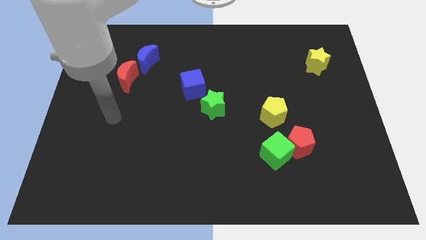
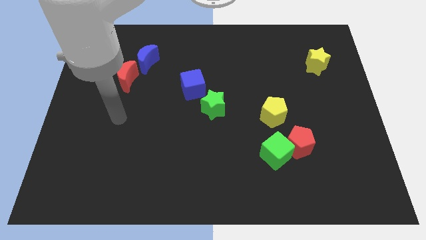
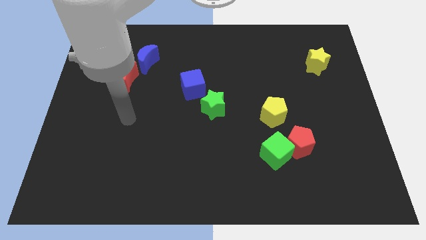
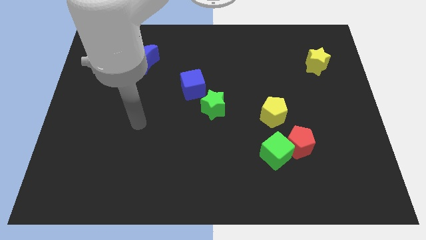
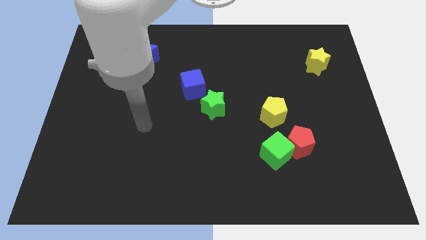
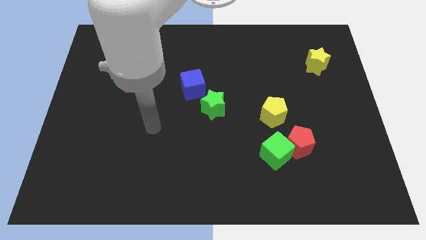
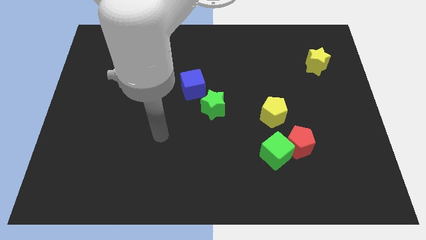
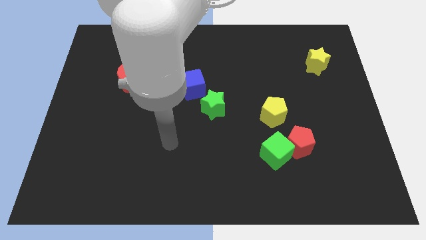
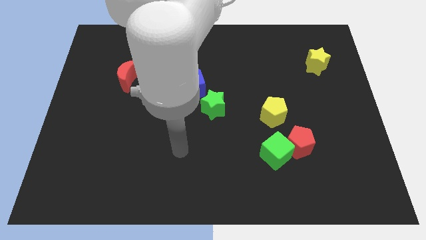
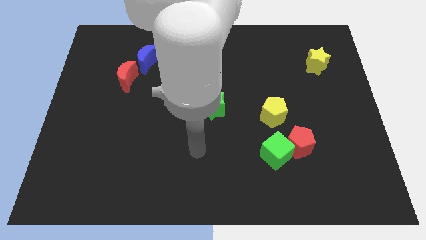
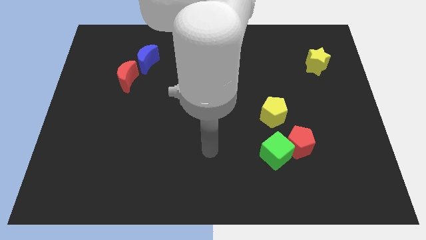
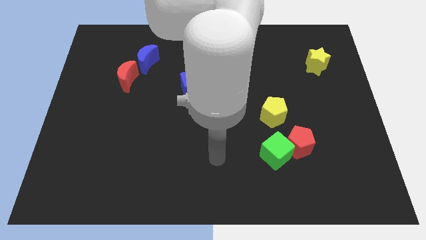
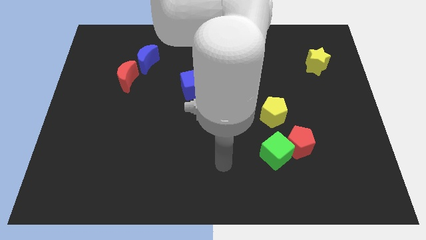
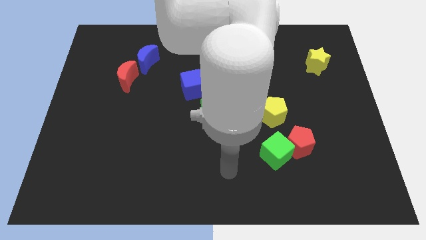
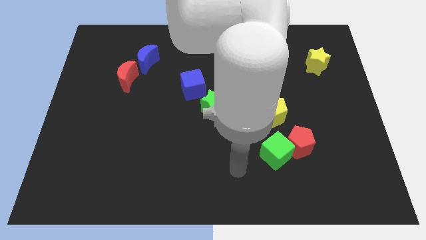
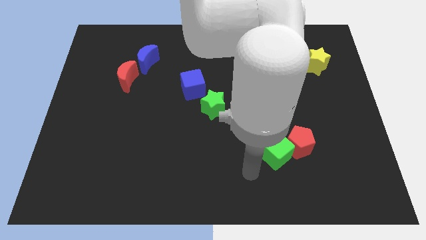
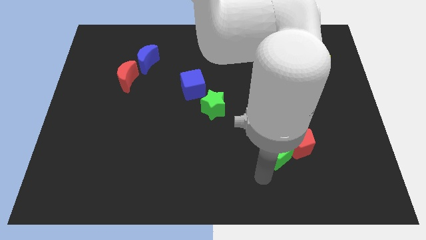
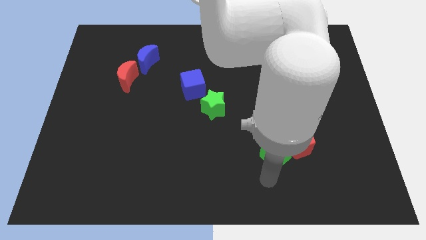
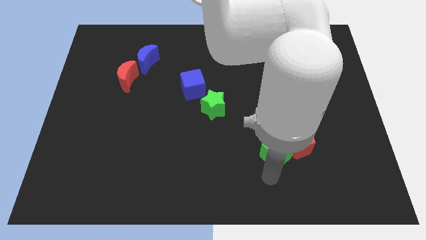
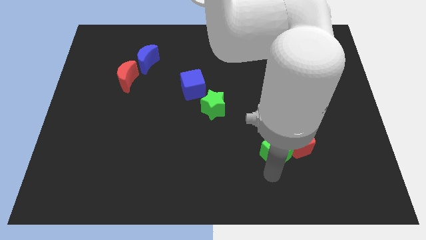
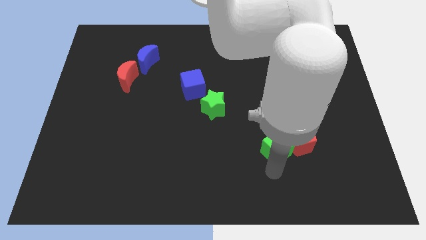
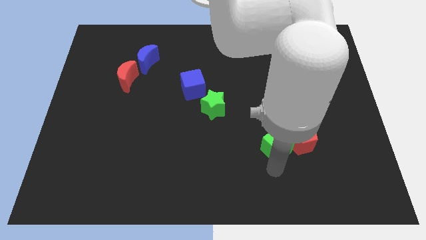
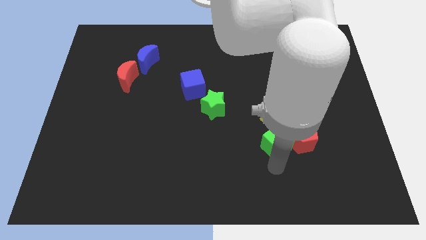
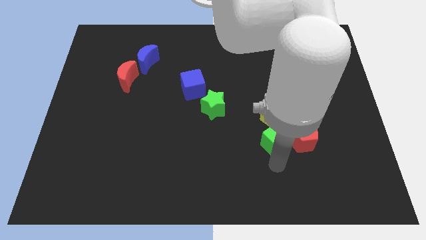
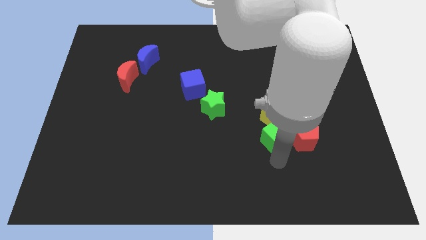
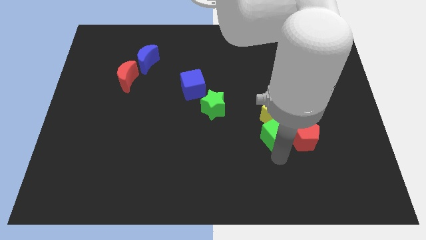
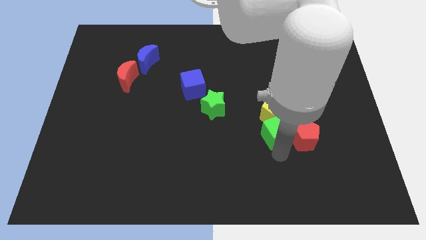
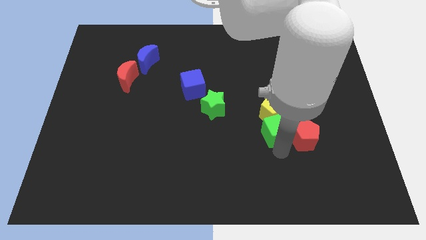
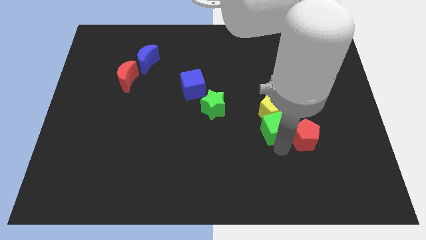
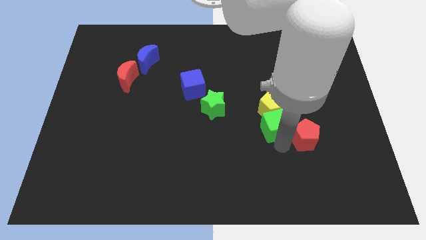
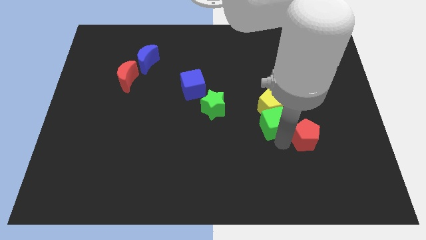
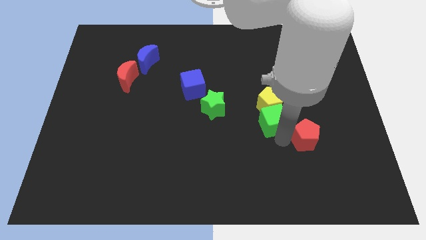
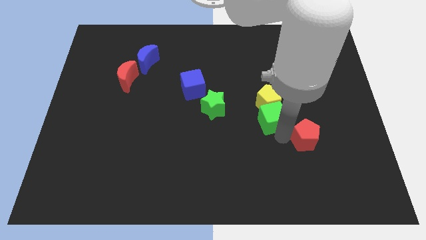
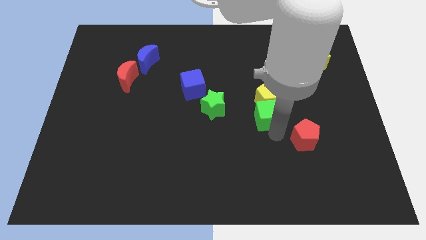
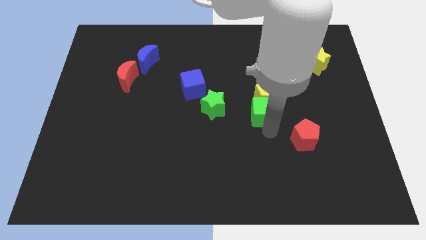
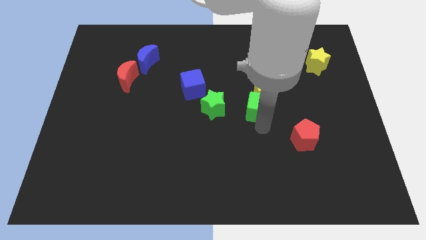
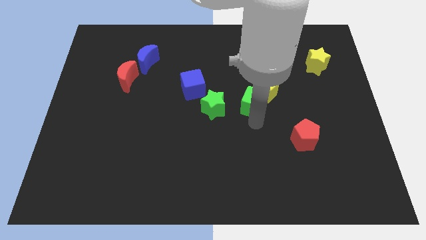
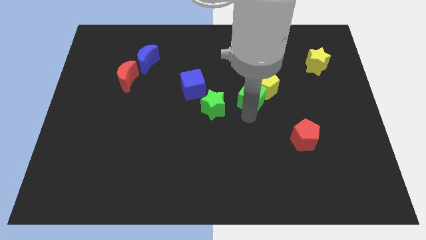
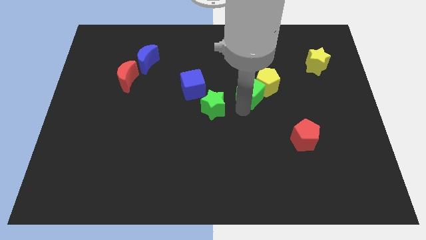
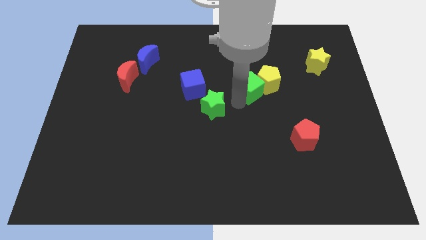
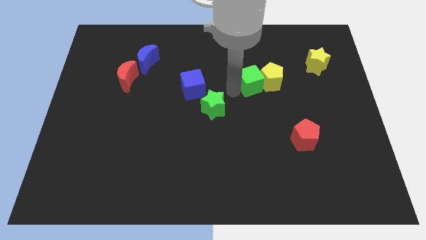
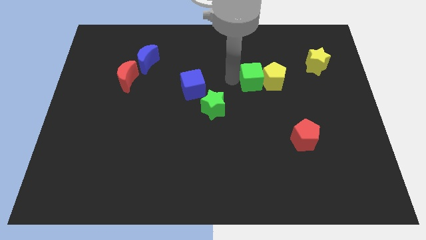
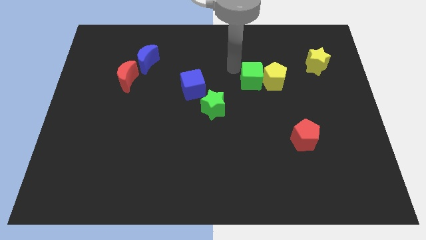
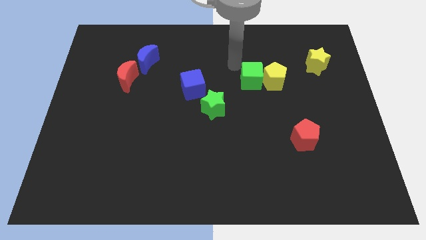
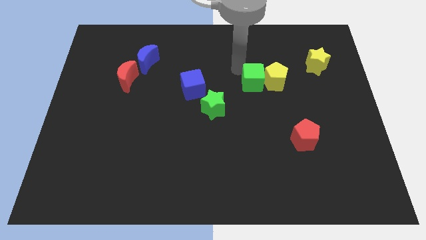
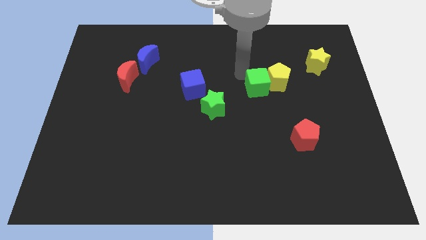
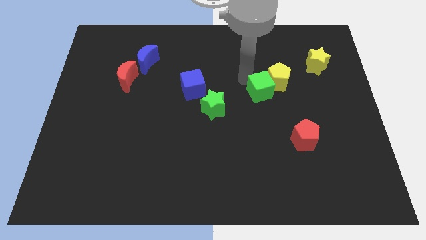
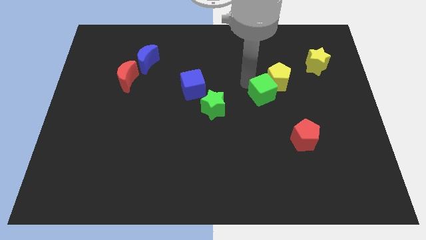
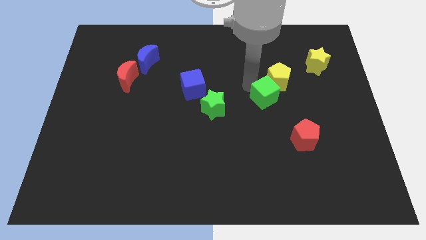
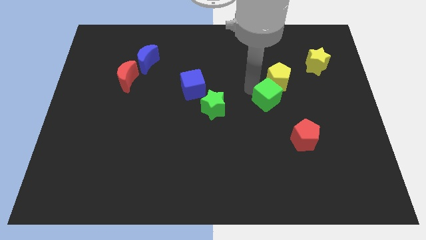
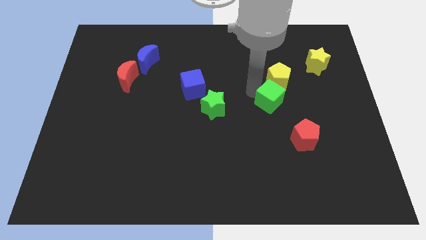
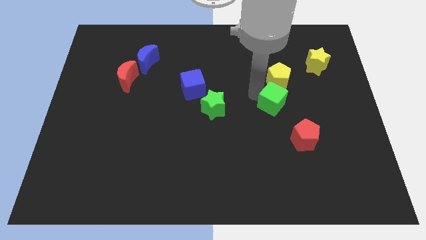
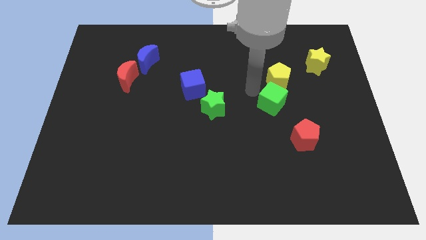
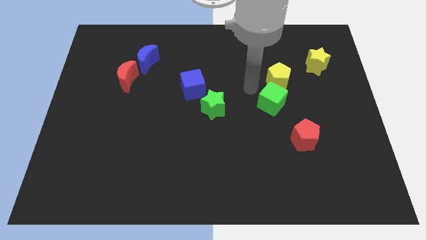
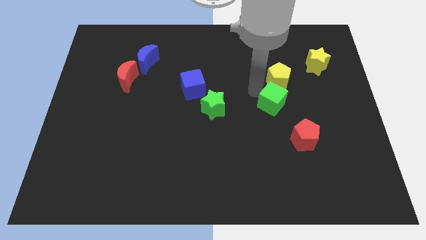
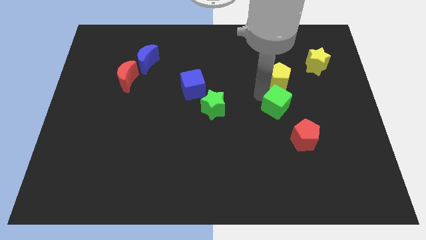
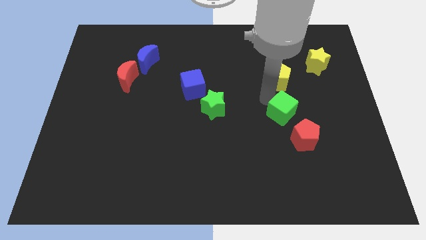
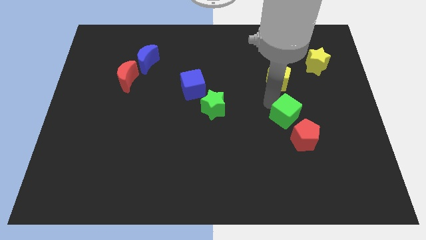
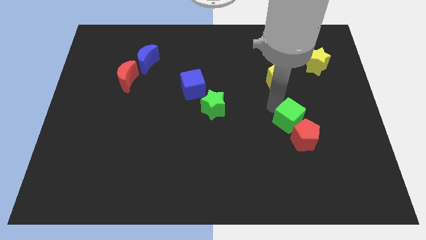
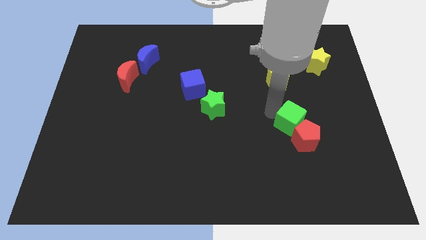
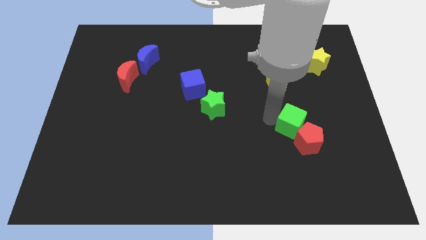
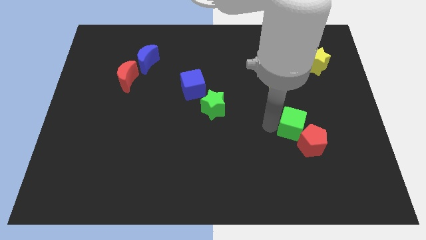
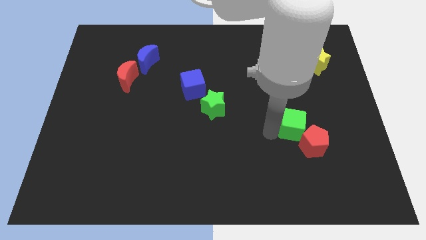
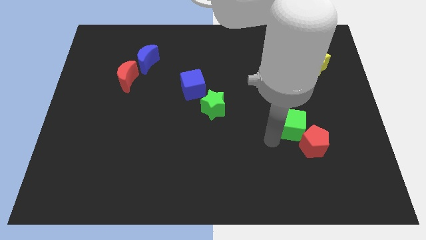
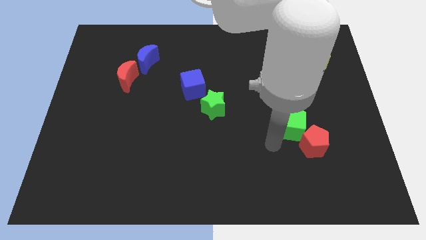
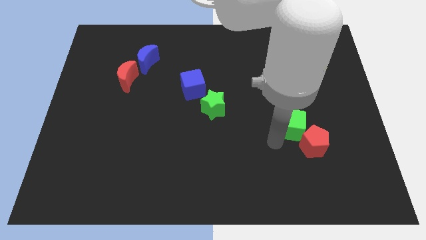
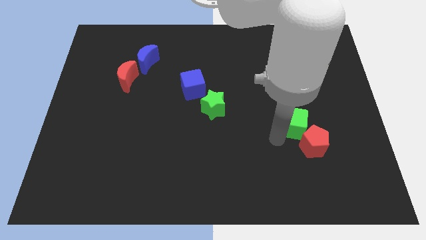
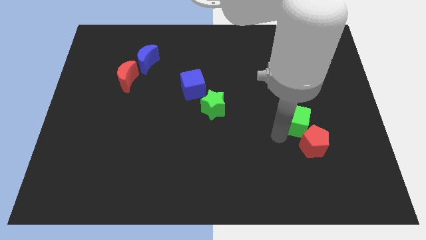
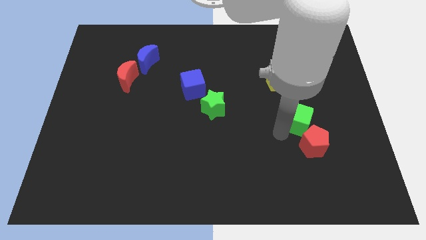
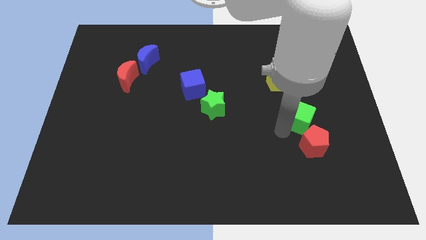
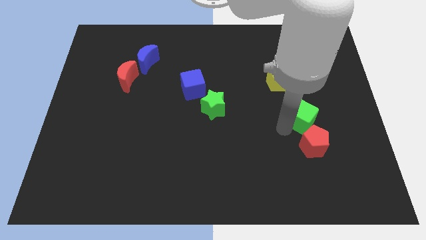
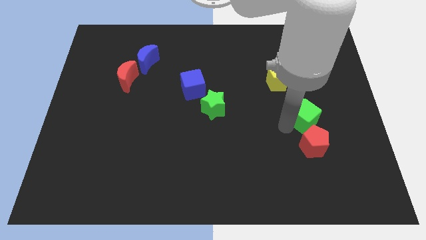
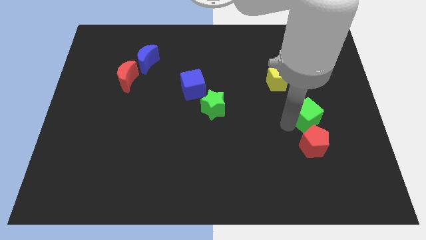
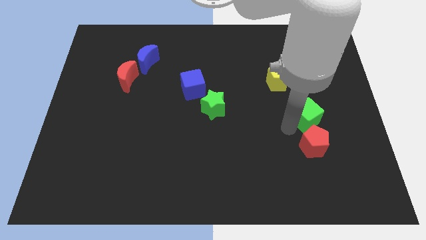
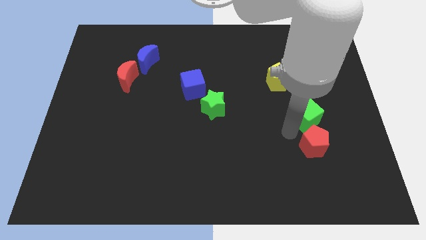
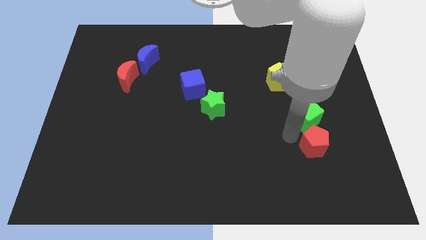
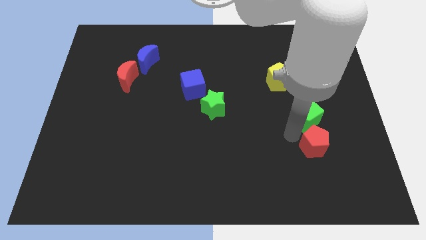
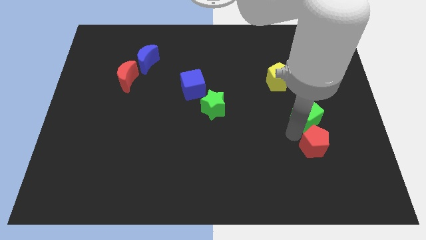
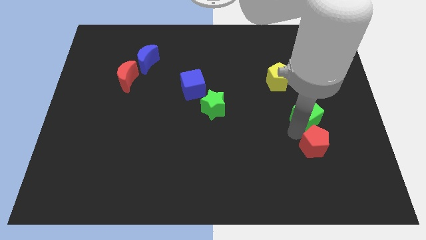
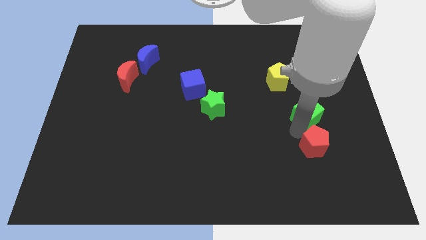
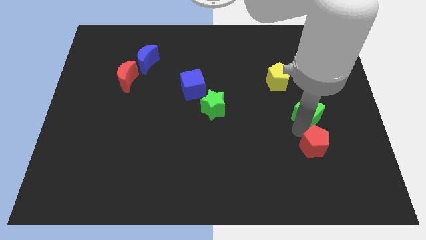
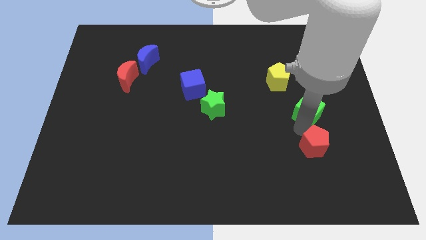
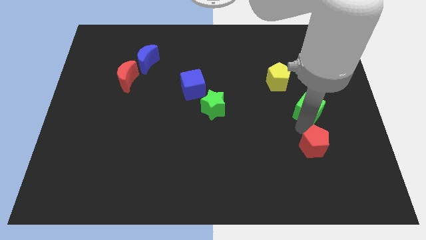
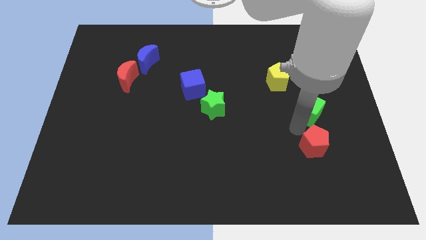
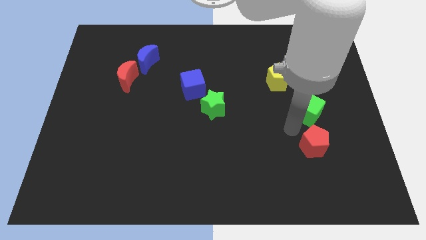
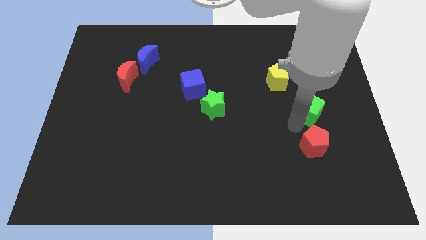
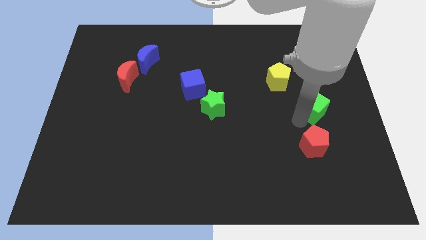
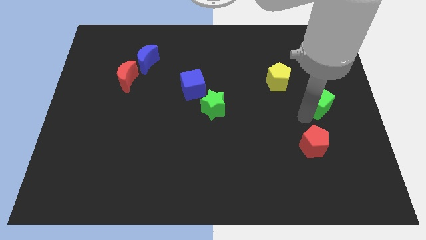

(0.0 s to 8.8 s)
push the green cube to the bottom of the yellow star
